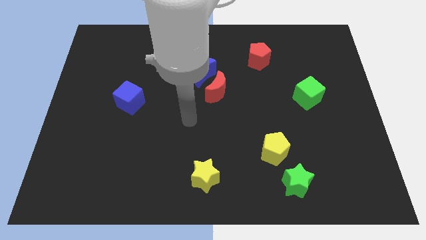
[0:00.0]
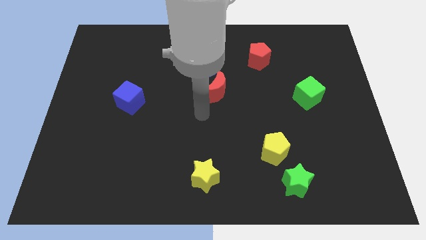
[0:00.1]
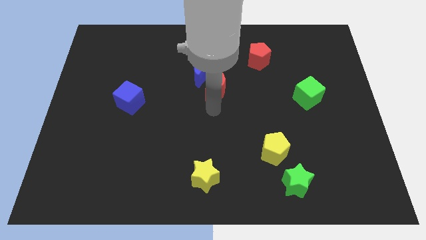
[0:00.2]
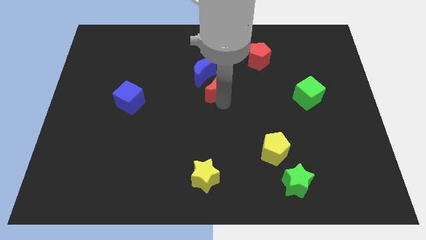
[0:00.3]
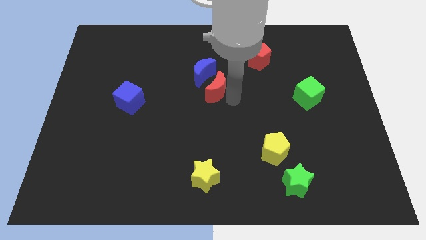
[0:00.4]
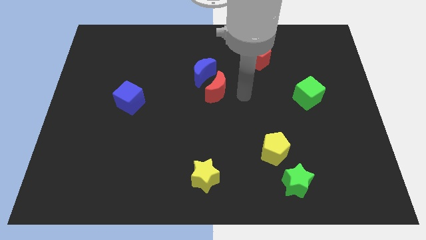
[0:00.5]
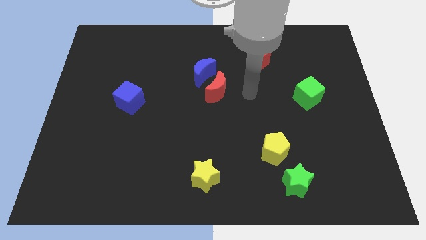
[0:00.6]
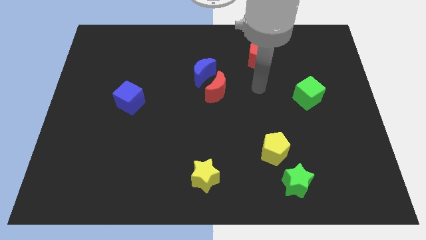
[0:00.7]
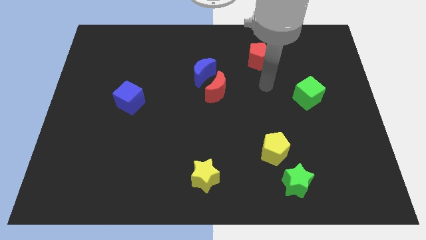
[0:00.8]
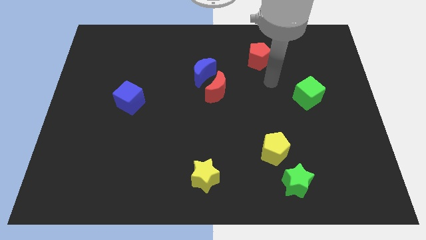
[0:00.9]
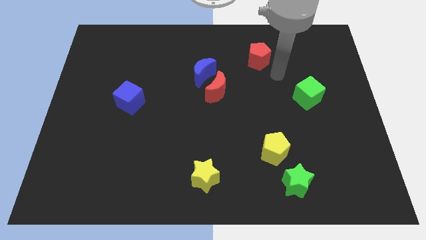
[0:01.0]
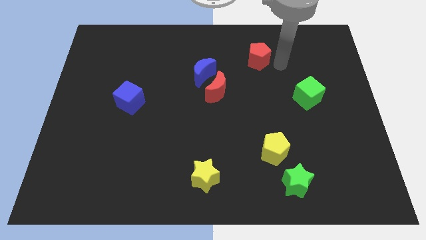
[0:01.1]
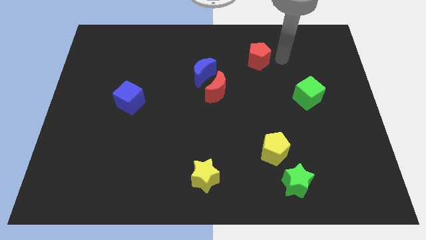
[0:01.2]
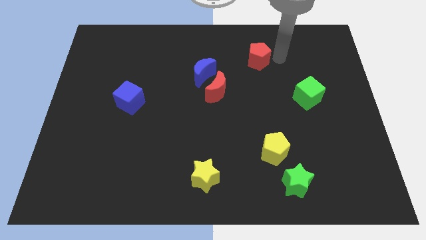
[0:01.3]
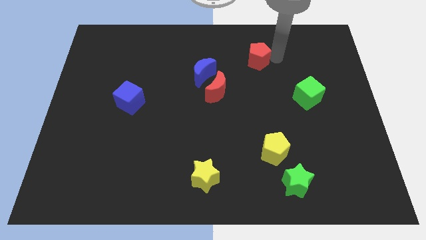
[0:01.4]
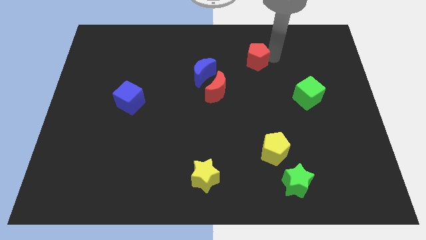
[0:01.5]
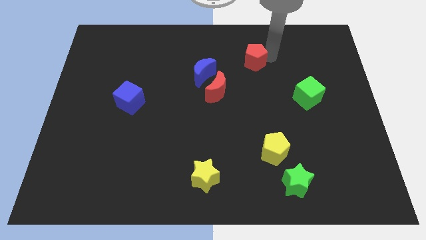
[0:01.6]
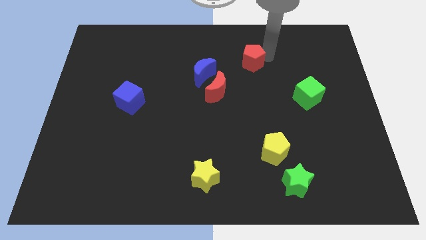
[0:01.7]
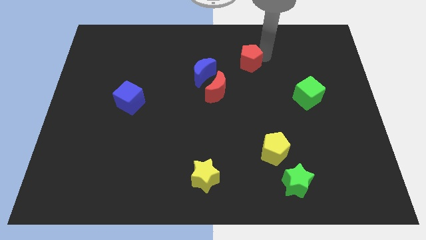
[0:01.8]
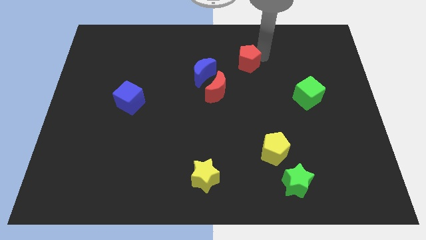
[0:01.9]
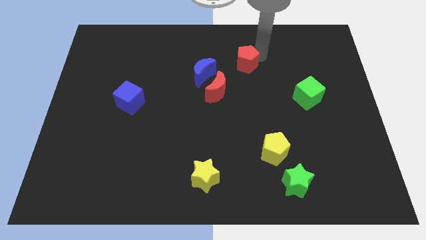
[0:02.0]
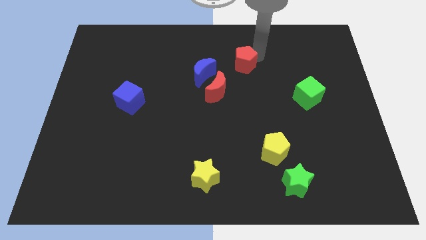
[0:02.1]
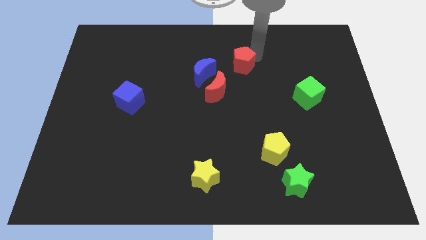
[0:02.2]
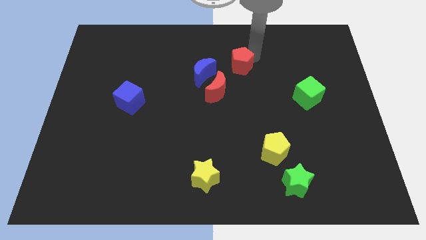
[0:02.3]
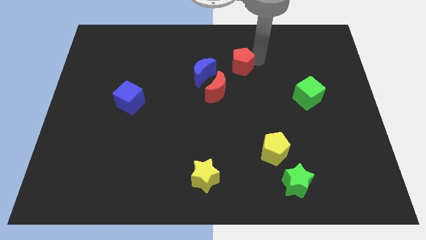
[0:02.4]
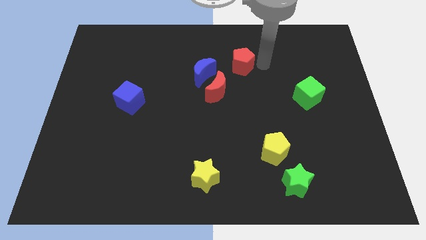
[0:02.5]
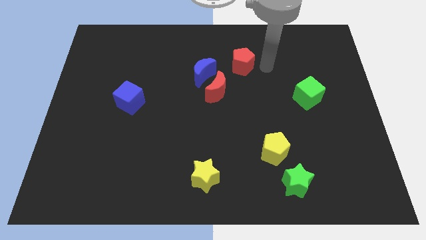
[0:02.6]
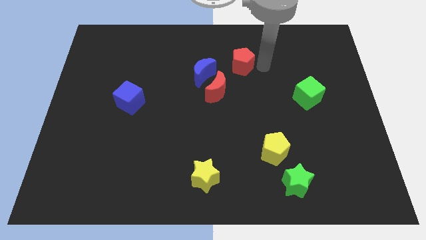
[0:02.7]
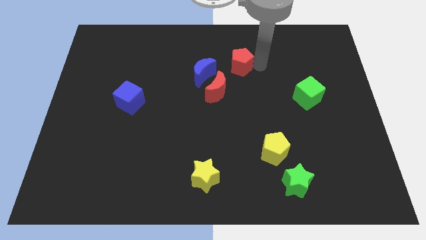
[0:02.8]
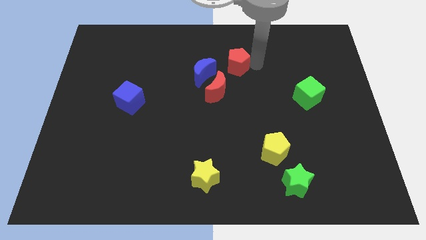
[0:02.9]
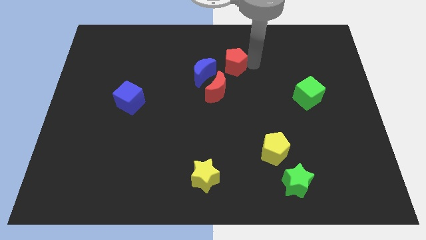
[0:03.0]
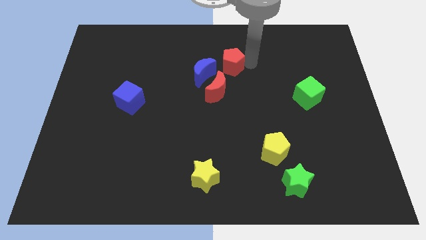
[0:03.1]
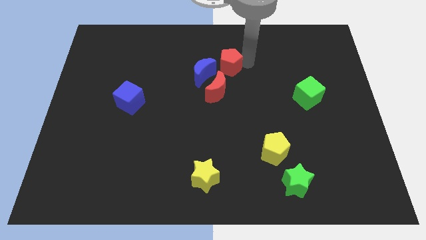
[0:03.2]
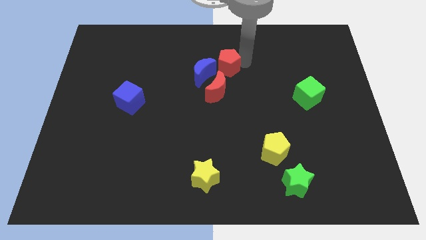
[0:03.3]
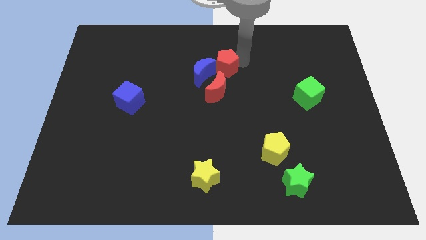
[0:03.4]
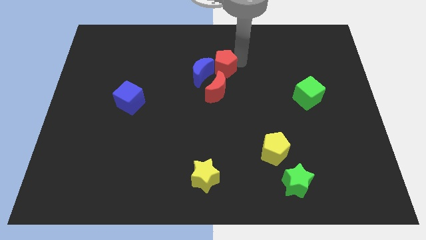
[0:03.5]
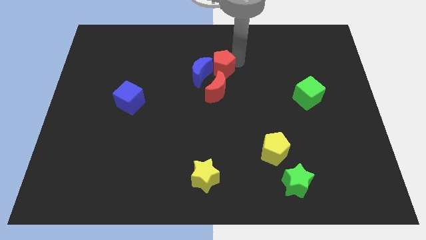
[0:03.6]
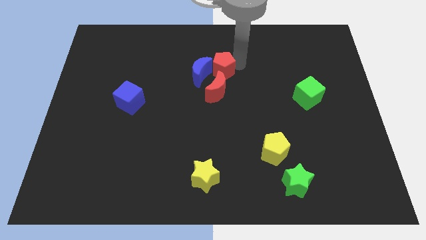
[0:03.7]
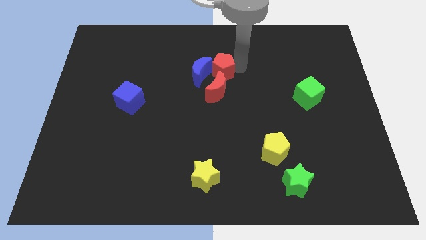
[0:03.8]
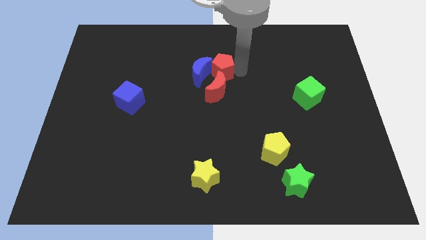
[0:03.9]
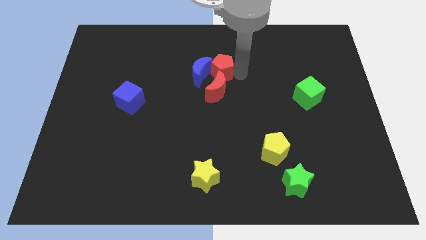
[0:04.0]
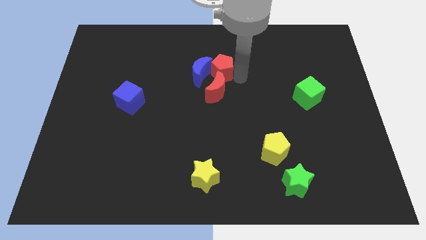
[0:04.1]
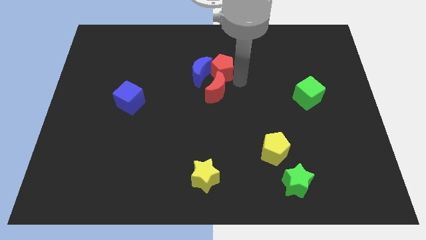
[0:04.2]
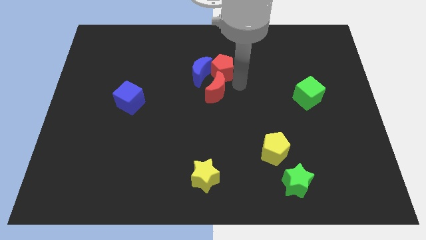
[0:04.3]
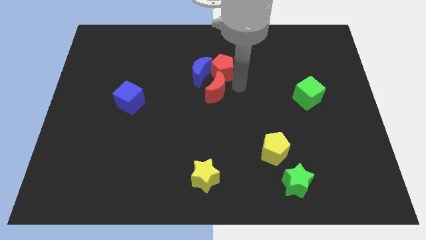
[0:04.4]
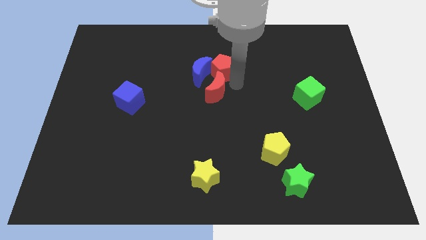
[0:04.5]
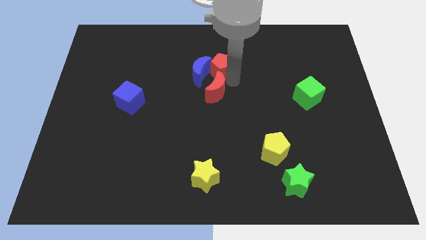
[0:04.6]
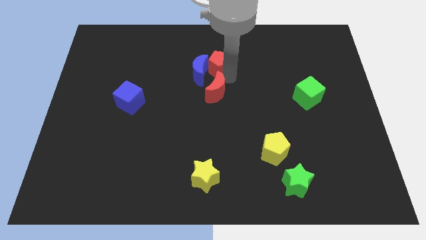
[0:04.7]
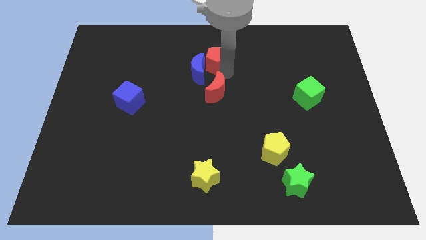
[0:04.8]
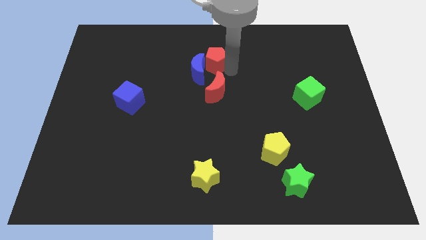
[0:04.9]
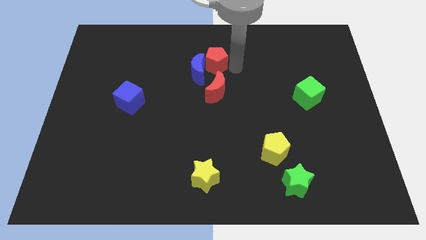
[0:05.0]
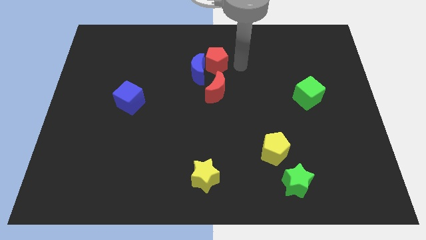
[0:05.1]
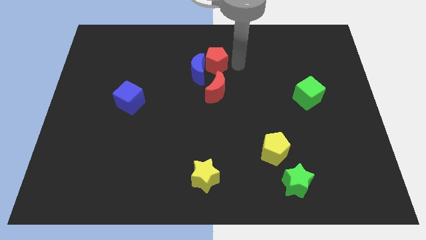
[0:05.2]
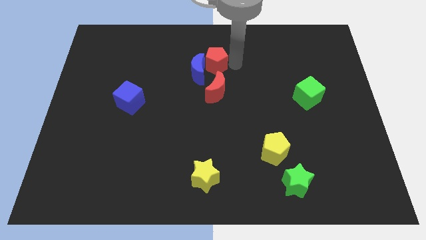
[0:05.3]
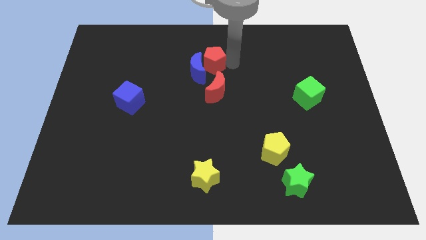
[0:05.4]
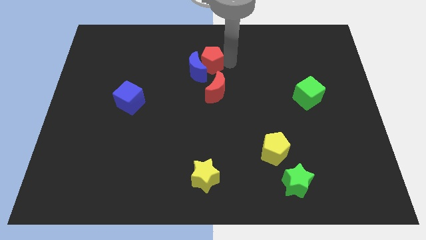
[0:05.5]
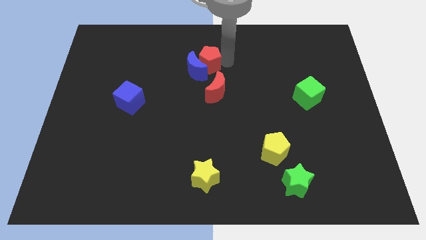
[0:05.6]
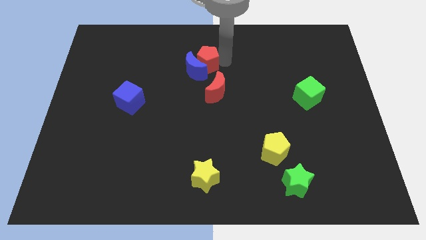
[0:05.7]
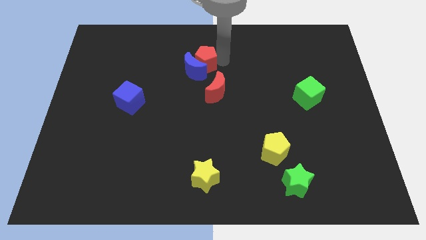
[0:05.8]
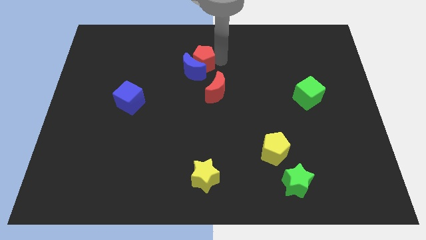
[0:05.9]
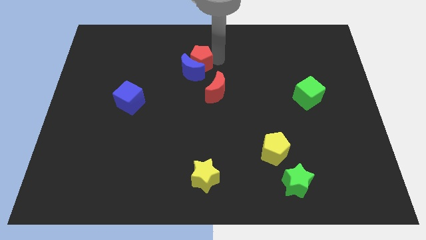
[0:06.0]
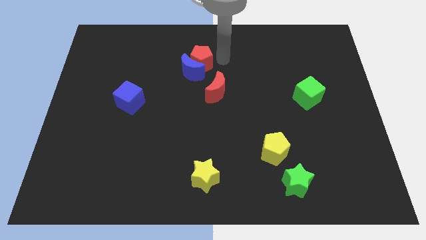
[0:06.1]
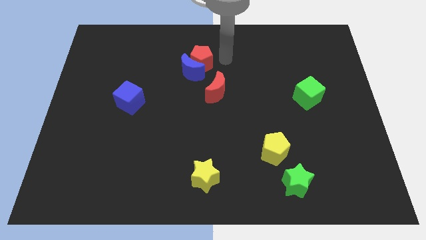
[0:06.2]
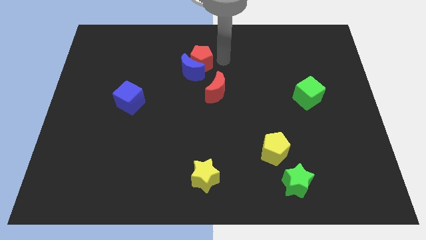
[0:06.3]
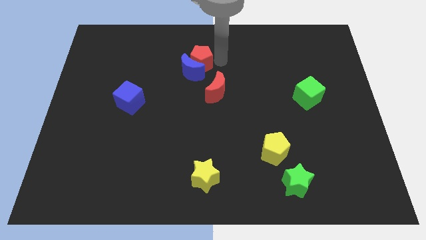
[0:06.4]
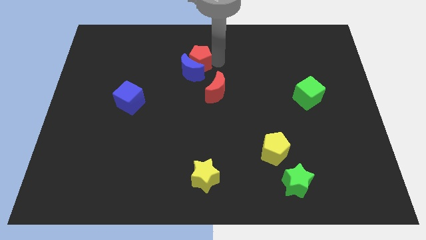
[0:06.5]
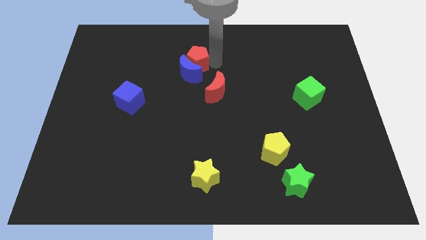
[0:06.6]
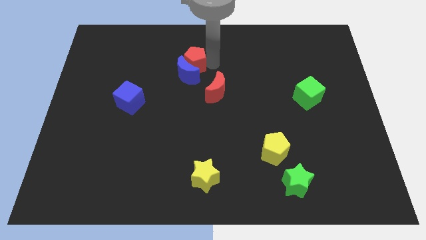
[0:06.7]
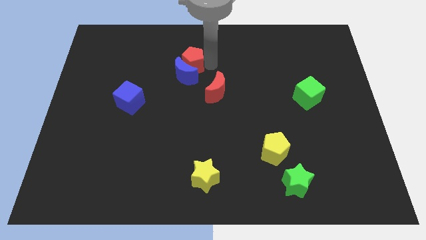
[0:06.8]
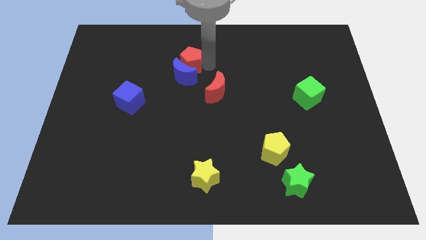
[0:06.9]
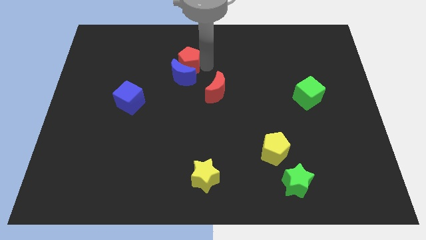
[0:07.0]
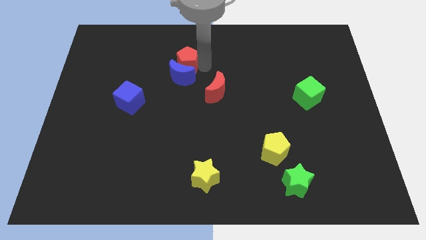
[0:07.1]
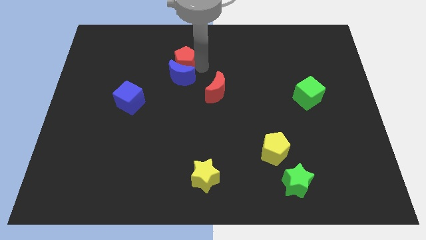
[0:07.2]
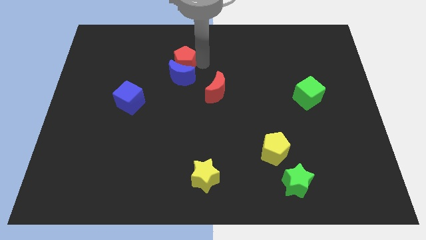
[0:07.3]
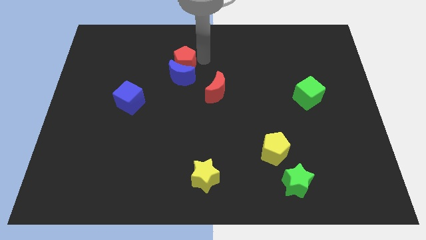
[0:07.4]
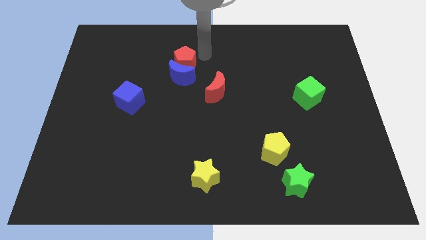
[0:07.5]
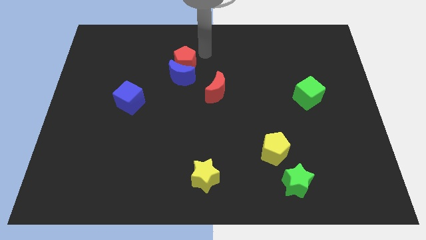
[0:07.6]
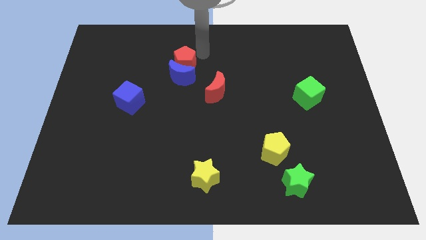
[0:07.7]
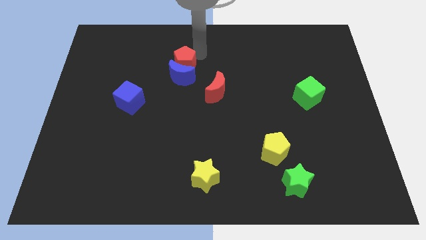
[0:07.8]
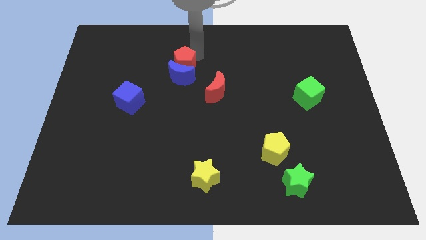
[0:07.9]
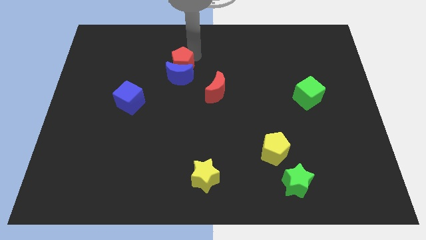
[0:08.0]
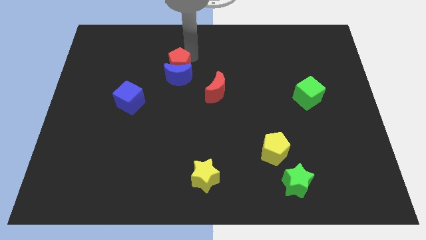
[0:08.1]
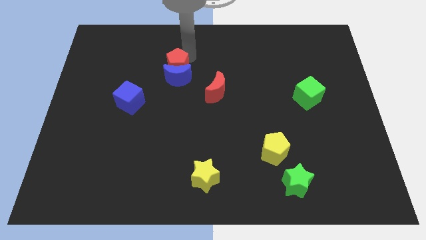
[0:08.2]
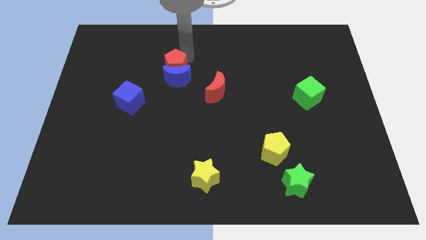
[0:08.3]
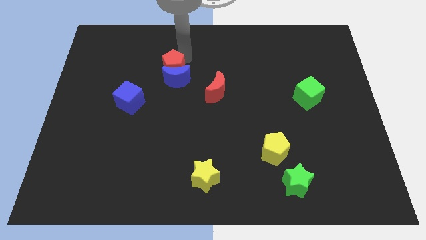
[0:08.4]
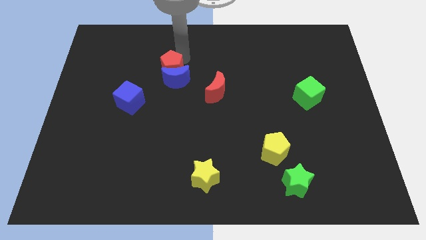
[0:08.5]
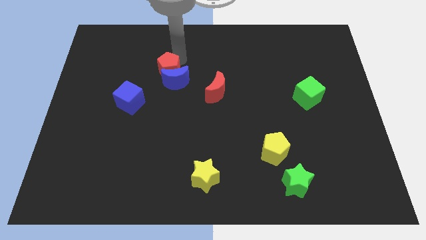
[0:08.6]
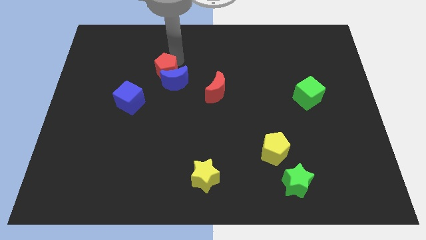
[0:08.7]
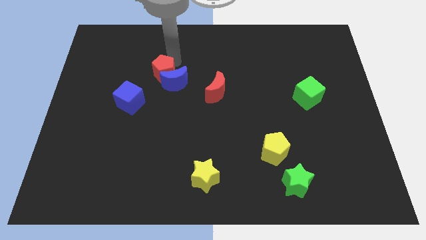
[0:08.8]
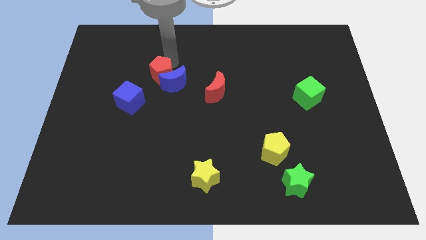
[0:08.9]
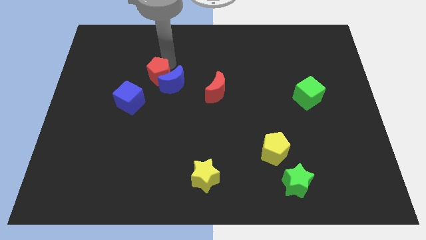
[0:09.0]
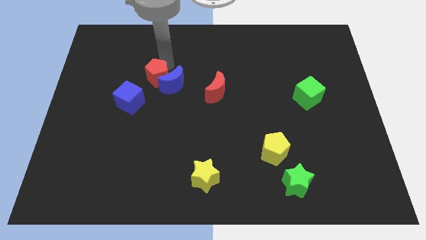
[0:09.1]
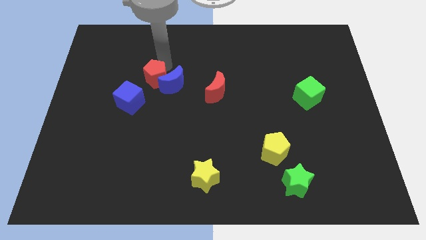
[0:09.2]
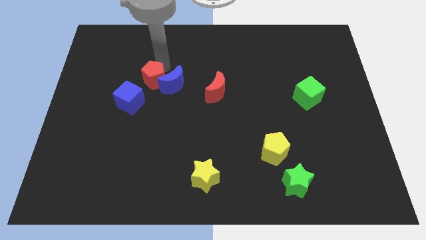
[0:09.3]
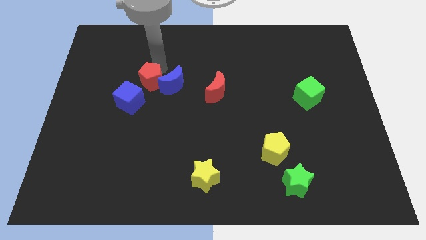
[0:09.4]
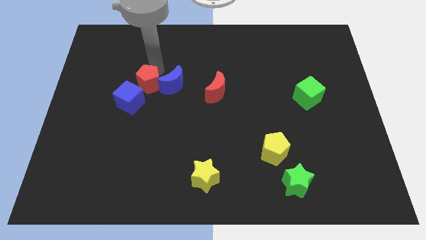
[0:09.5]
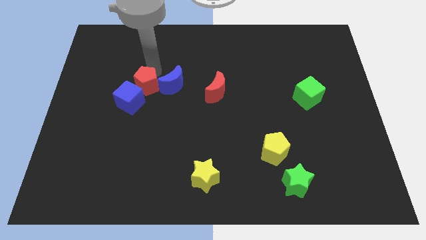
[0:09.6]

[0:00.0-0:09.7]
slide the red pentagon towards the blue cube
